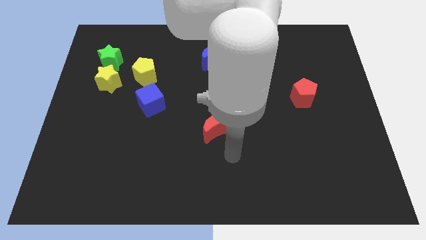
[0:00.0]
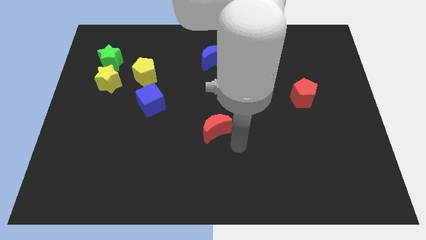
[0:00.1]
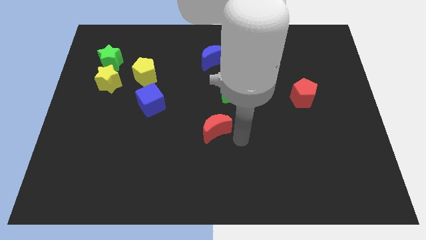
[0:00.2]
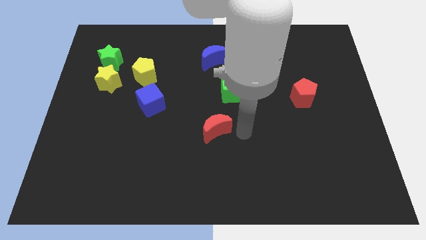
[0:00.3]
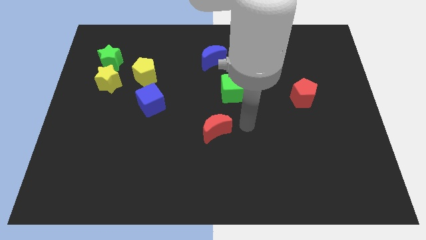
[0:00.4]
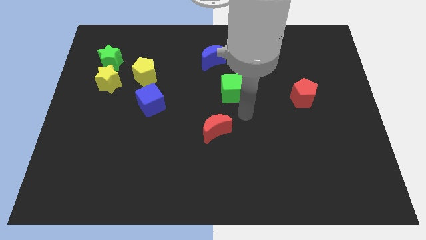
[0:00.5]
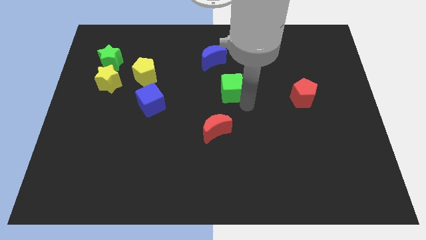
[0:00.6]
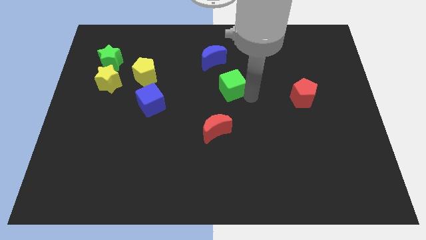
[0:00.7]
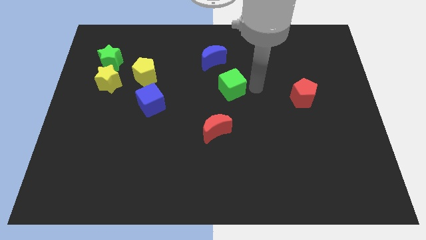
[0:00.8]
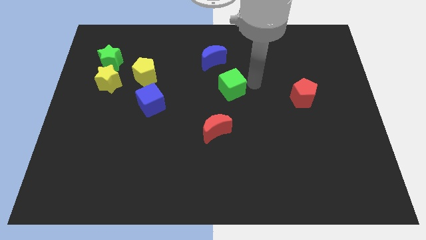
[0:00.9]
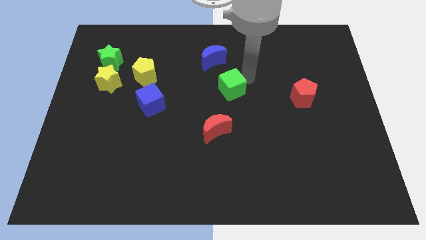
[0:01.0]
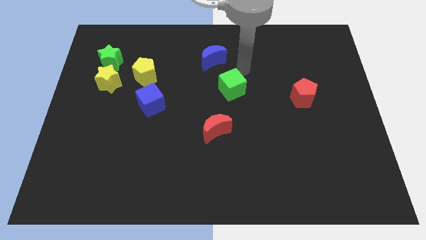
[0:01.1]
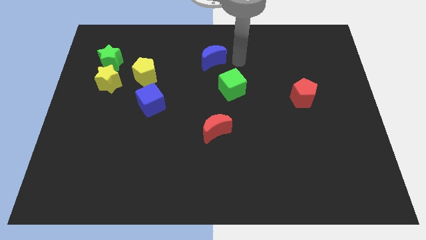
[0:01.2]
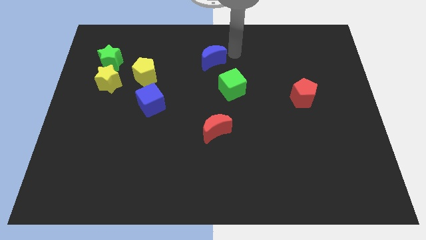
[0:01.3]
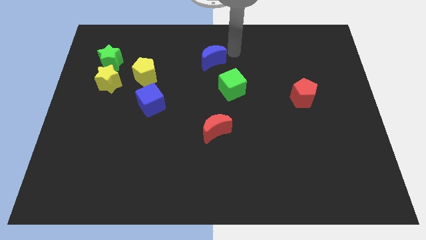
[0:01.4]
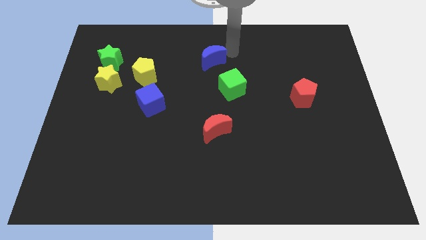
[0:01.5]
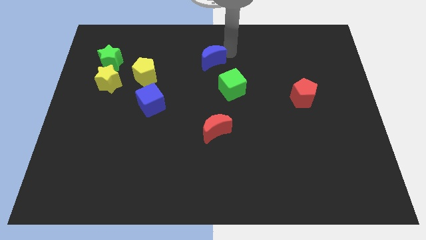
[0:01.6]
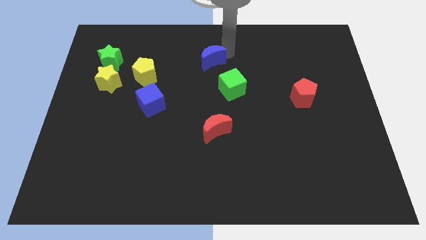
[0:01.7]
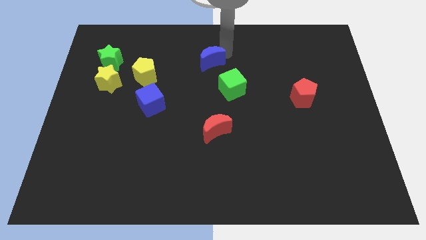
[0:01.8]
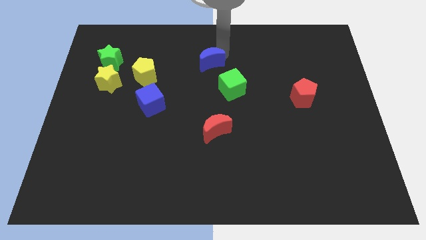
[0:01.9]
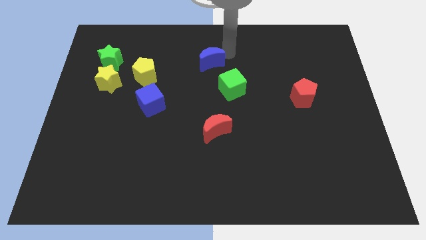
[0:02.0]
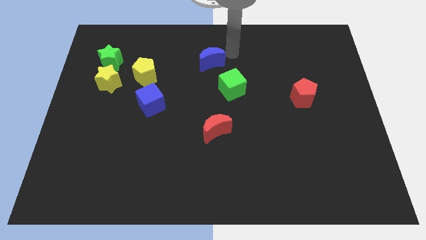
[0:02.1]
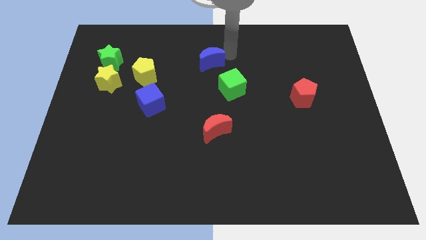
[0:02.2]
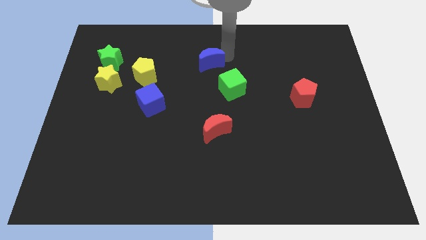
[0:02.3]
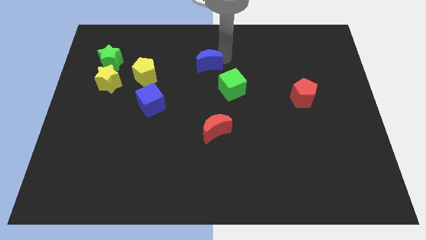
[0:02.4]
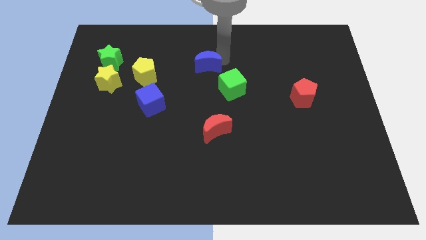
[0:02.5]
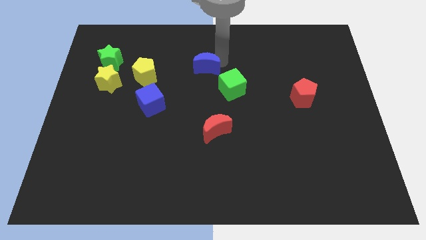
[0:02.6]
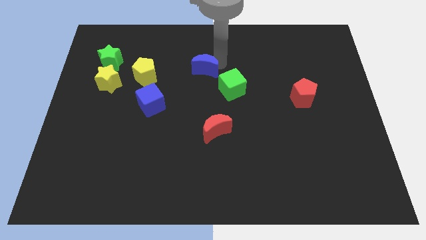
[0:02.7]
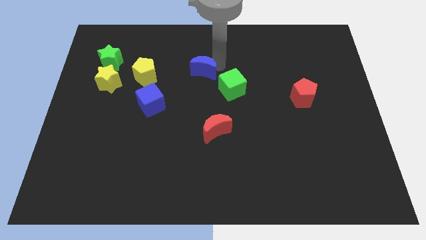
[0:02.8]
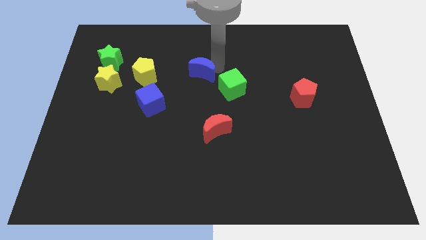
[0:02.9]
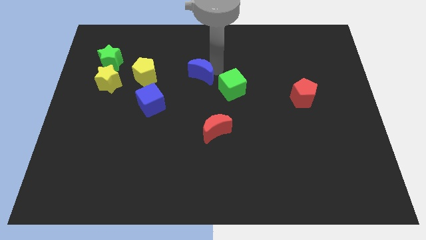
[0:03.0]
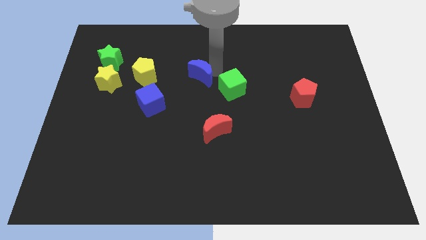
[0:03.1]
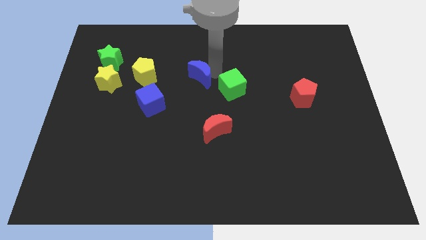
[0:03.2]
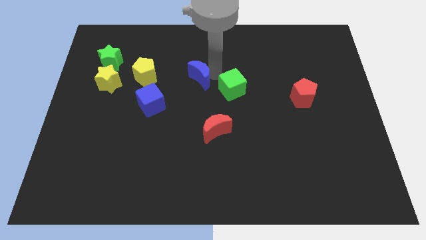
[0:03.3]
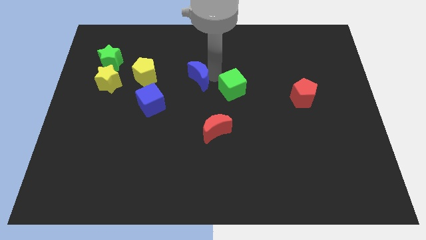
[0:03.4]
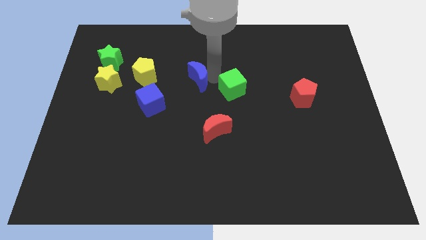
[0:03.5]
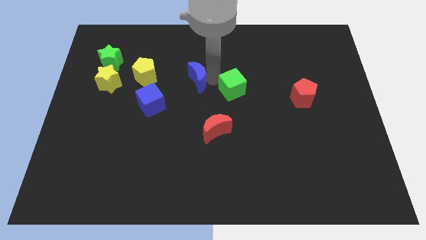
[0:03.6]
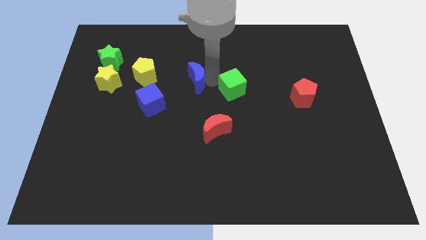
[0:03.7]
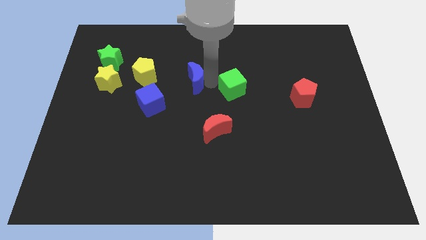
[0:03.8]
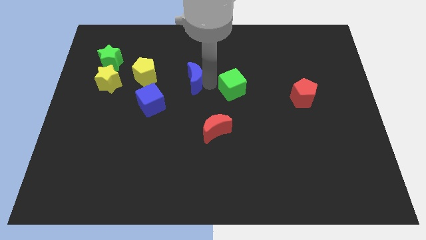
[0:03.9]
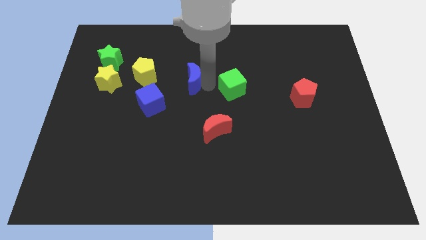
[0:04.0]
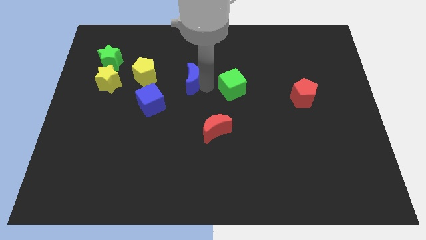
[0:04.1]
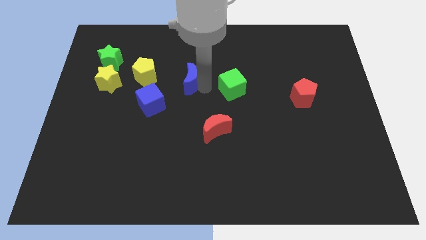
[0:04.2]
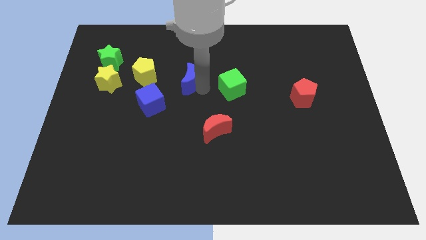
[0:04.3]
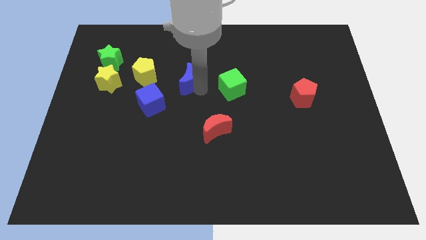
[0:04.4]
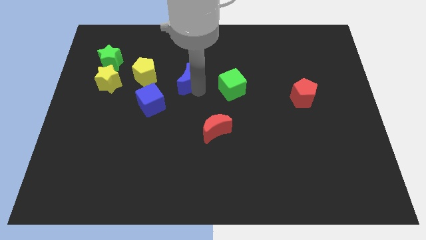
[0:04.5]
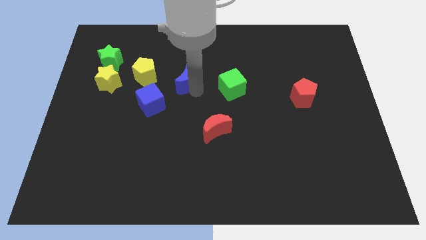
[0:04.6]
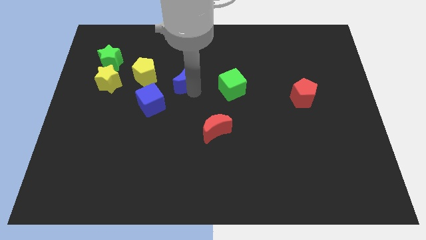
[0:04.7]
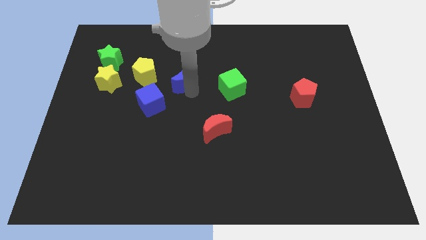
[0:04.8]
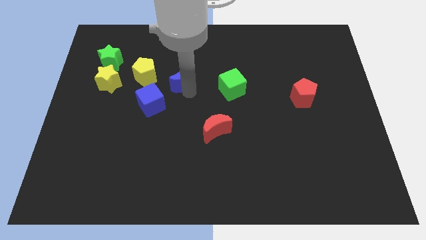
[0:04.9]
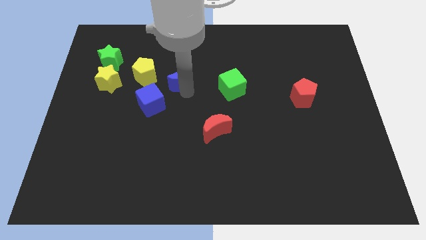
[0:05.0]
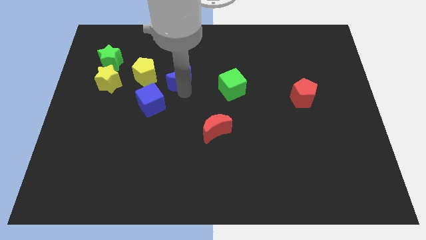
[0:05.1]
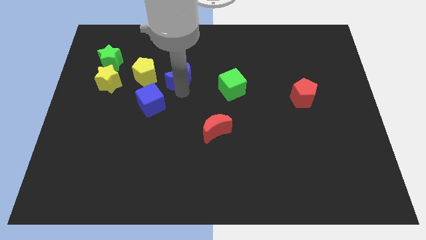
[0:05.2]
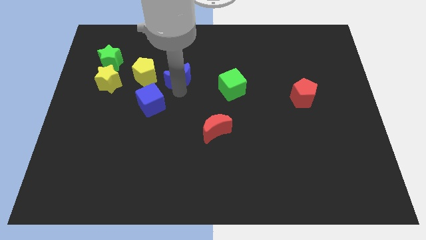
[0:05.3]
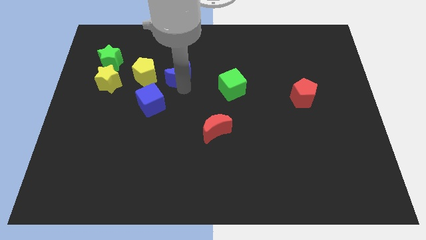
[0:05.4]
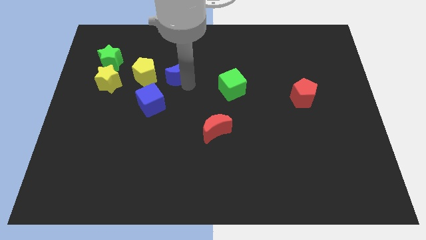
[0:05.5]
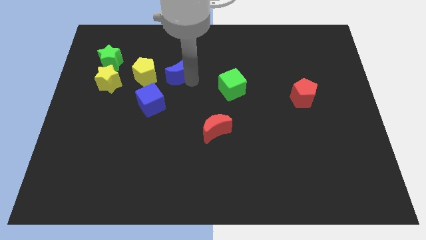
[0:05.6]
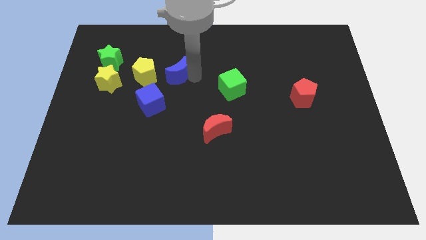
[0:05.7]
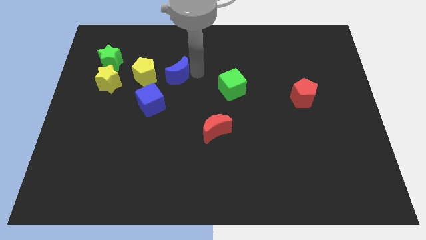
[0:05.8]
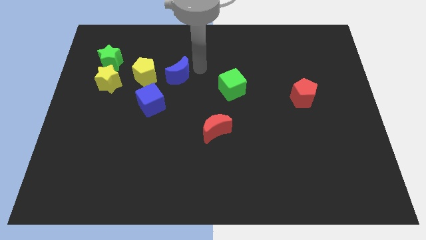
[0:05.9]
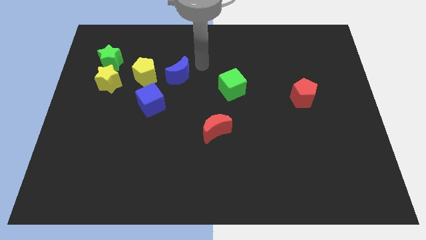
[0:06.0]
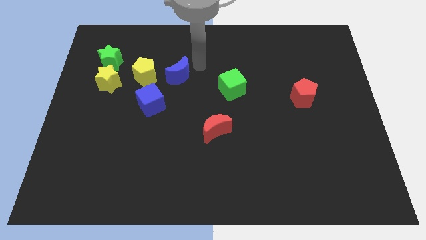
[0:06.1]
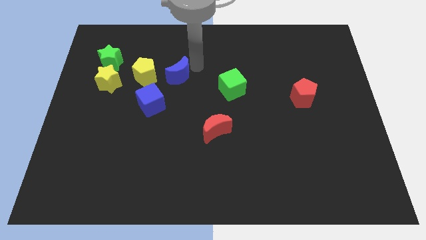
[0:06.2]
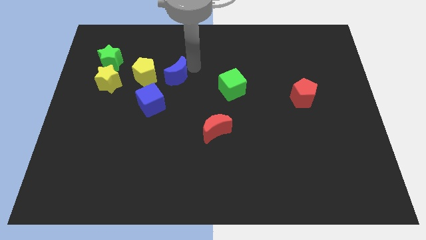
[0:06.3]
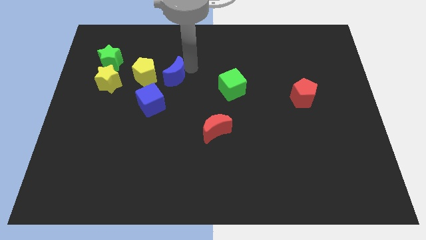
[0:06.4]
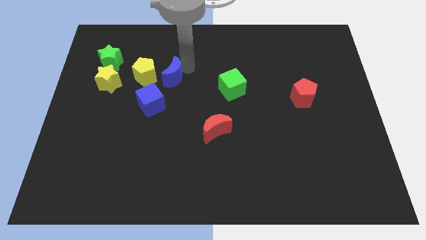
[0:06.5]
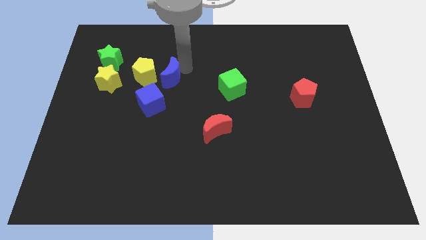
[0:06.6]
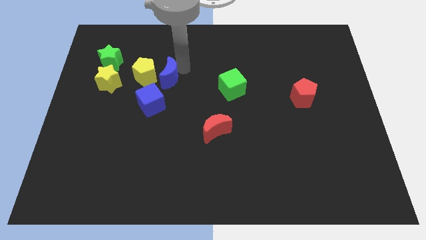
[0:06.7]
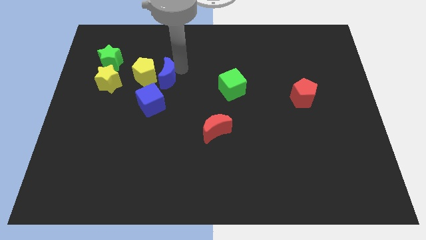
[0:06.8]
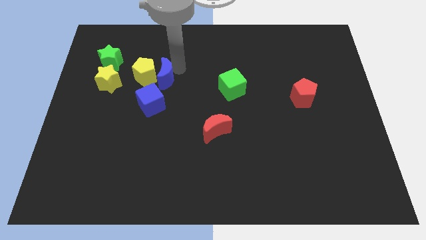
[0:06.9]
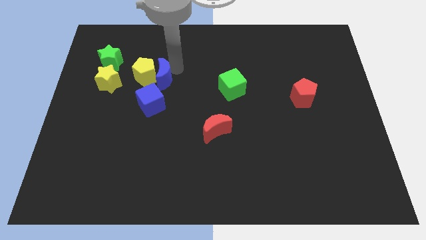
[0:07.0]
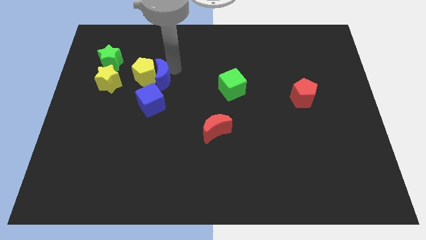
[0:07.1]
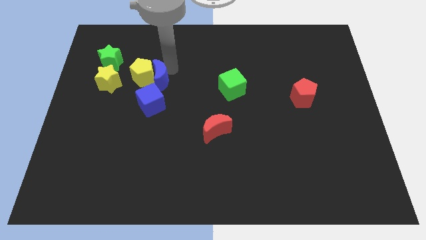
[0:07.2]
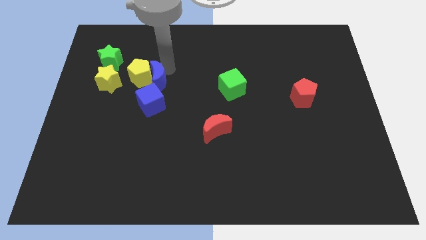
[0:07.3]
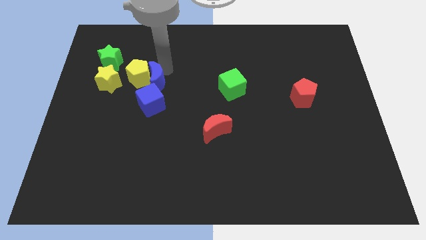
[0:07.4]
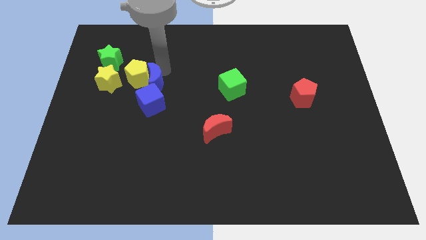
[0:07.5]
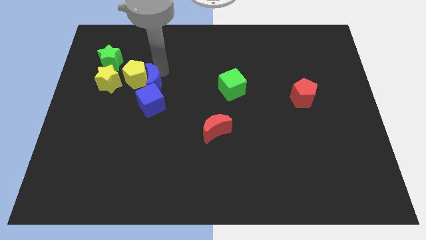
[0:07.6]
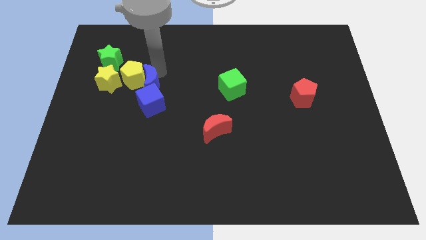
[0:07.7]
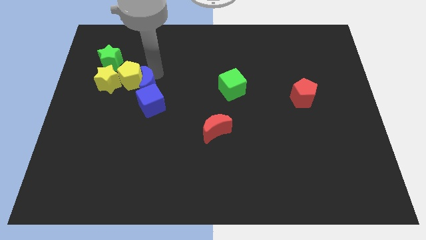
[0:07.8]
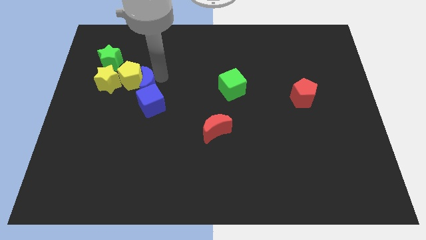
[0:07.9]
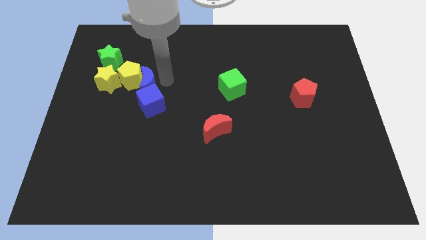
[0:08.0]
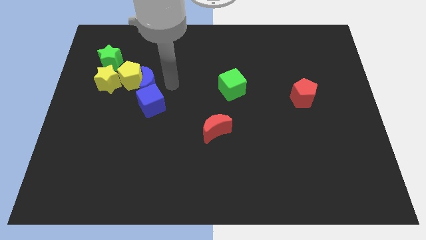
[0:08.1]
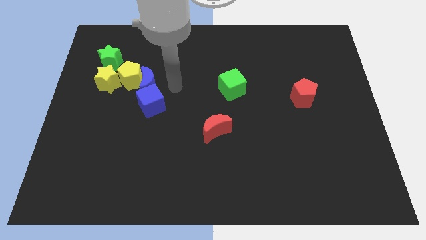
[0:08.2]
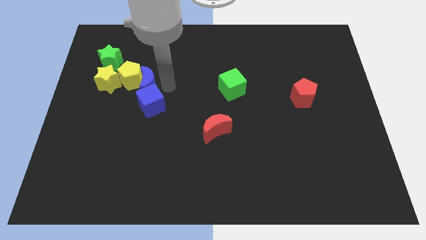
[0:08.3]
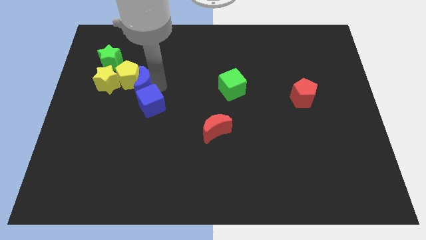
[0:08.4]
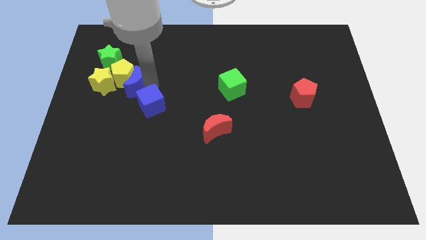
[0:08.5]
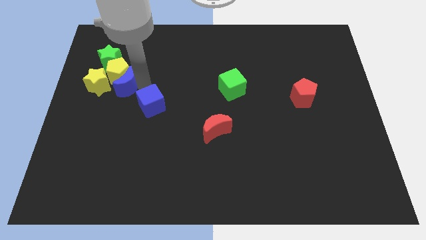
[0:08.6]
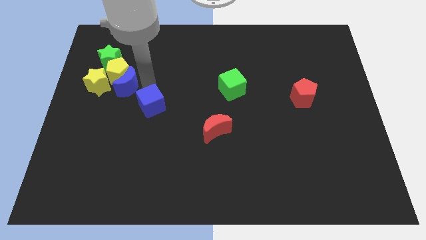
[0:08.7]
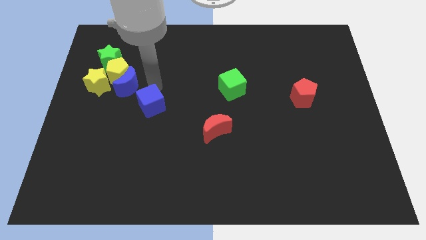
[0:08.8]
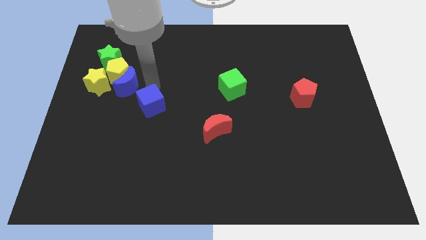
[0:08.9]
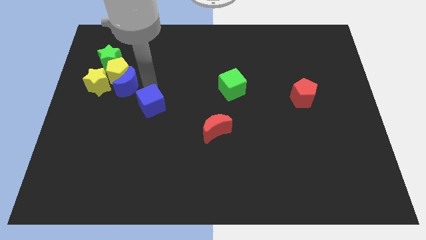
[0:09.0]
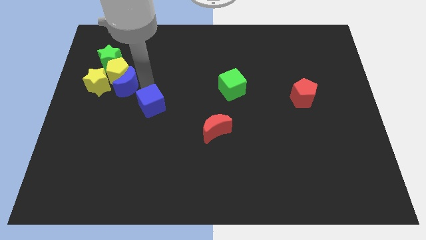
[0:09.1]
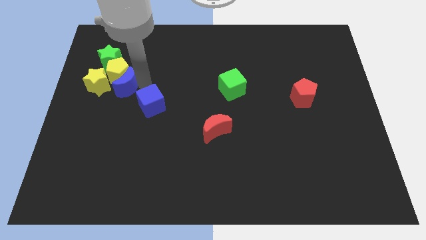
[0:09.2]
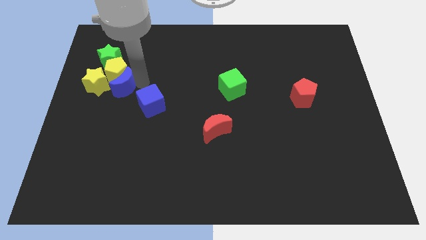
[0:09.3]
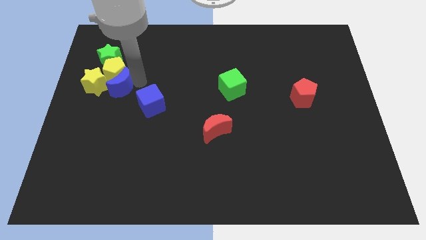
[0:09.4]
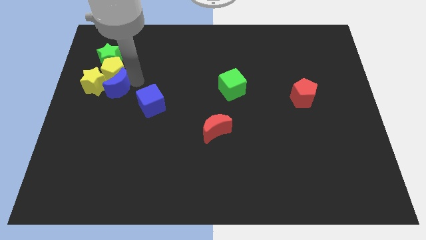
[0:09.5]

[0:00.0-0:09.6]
move the blue moon next to the yellow star
